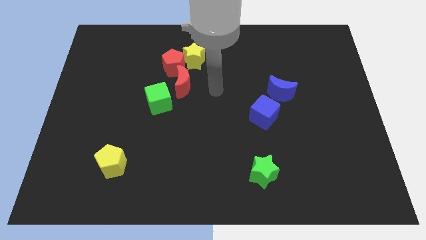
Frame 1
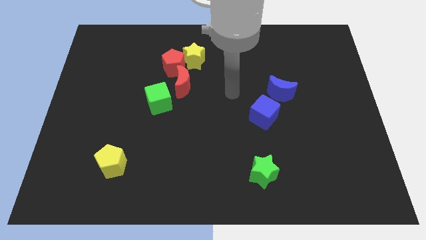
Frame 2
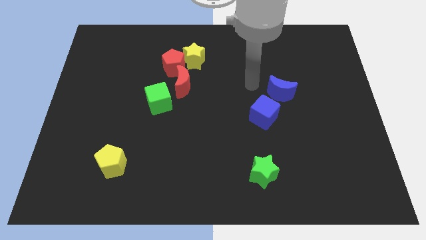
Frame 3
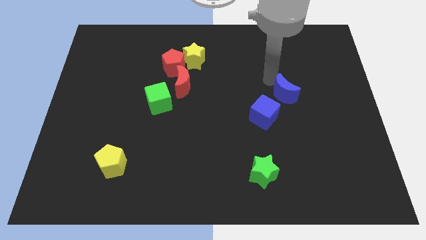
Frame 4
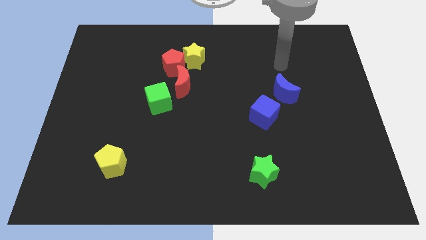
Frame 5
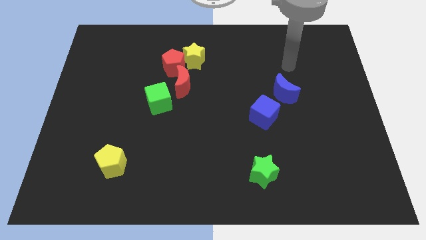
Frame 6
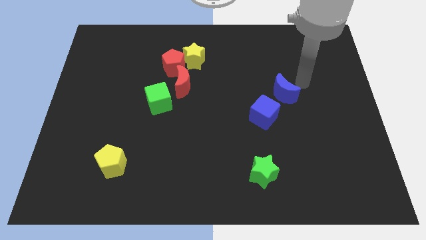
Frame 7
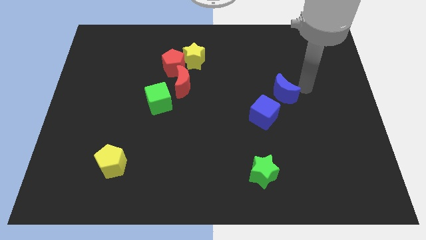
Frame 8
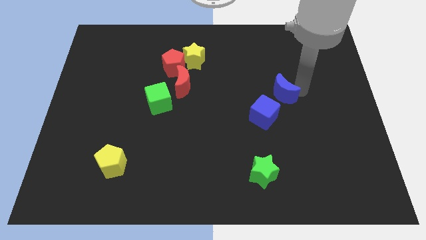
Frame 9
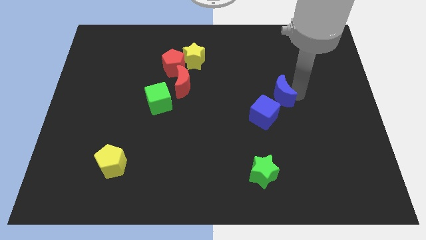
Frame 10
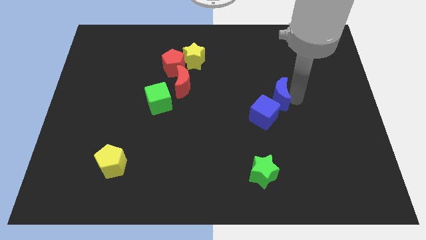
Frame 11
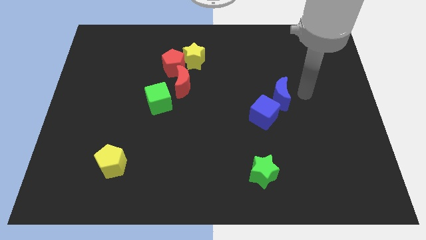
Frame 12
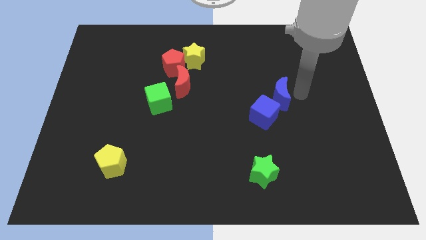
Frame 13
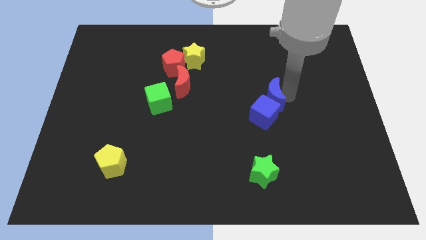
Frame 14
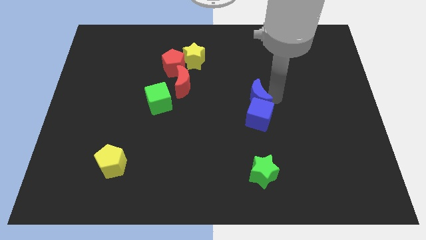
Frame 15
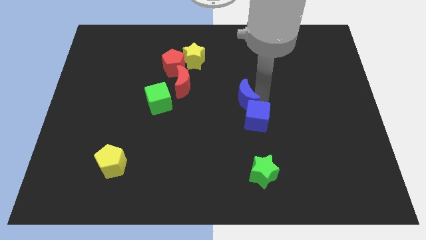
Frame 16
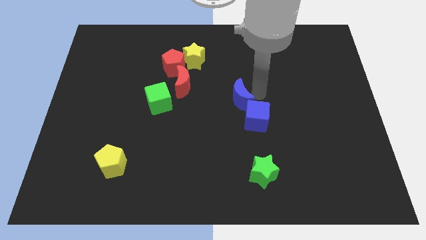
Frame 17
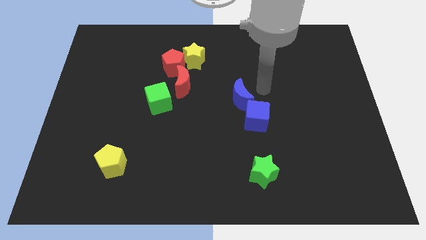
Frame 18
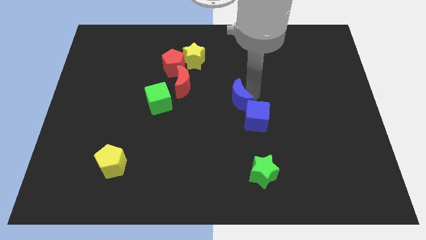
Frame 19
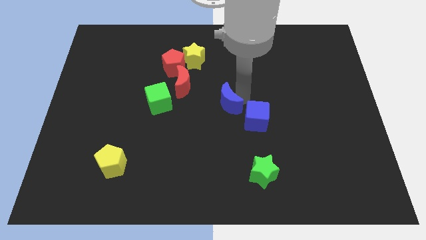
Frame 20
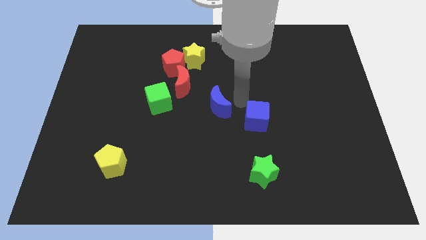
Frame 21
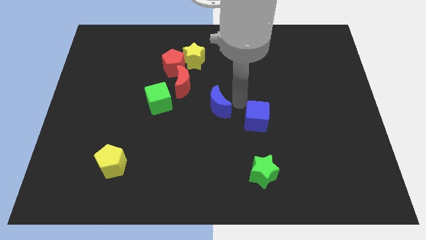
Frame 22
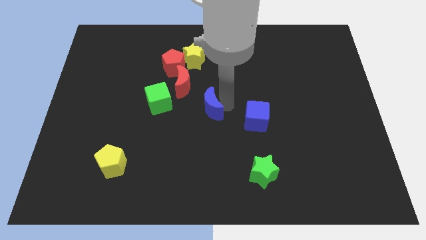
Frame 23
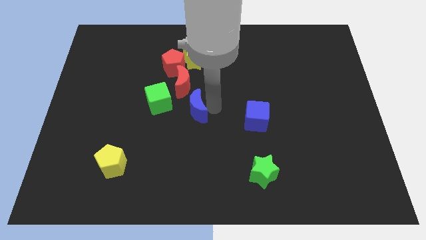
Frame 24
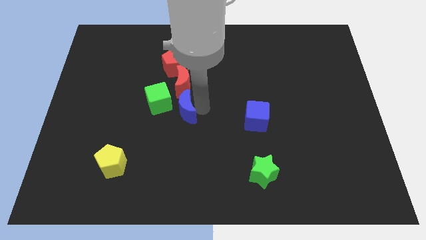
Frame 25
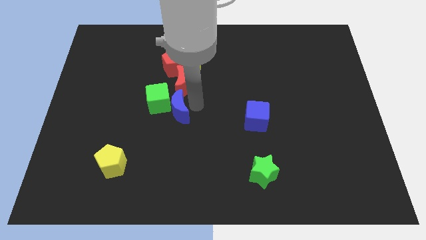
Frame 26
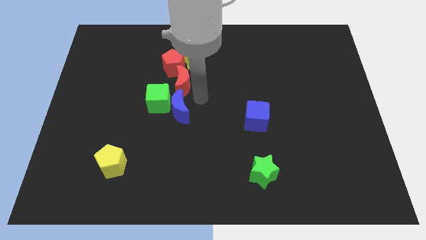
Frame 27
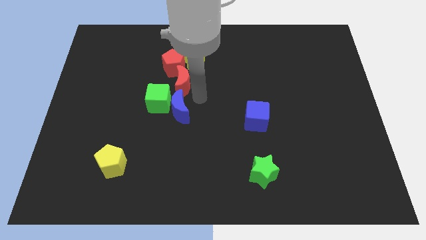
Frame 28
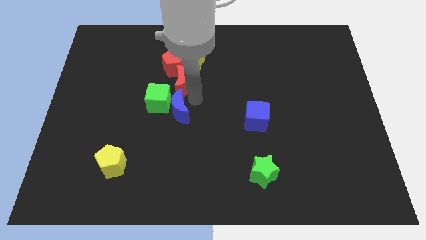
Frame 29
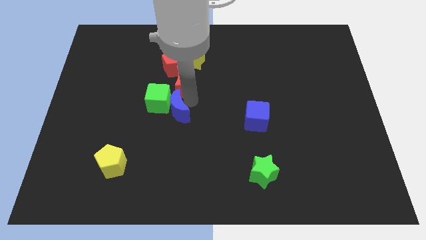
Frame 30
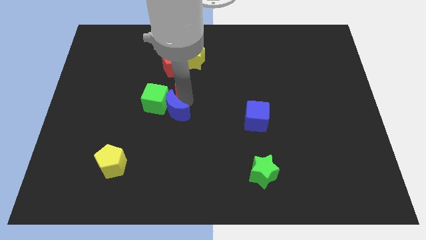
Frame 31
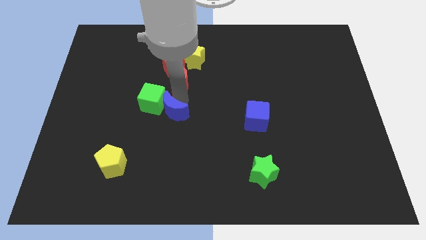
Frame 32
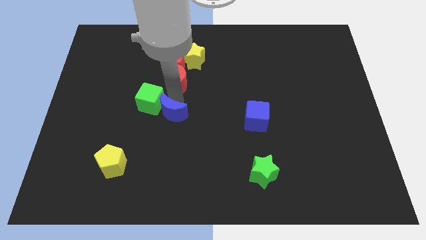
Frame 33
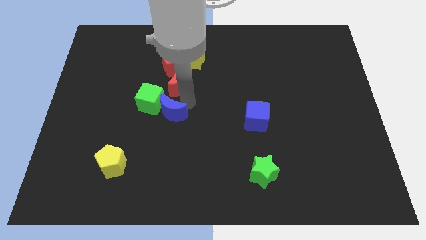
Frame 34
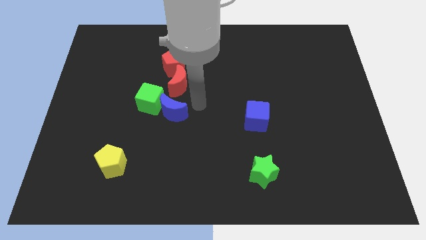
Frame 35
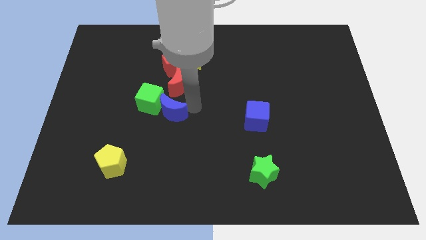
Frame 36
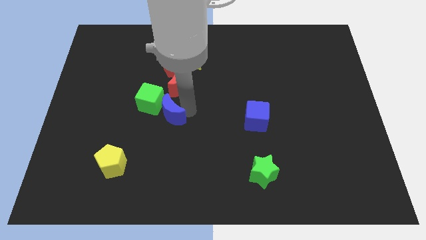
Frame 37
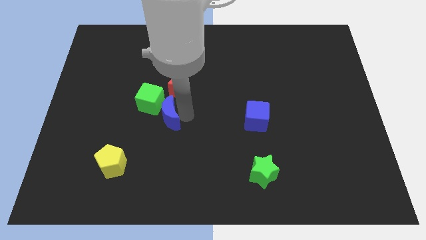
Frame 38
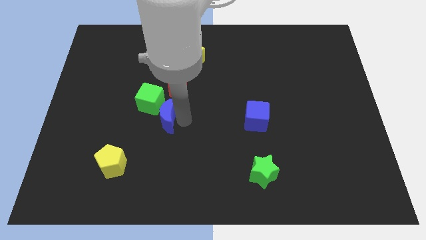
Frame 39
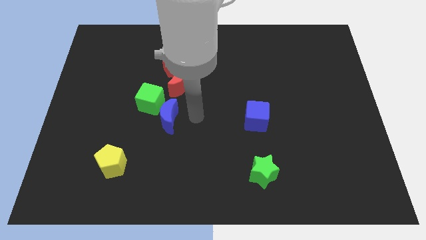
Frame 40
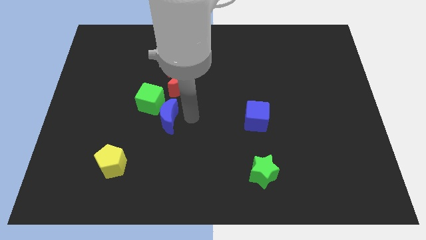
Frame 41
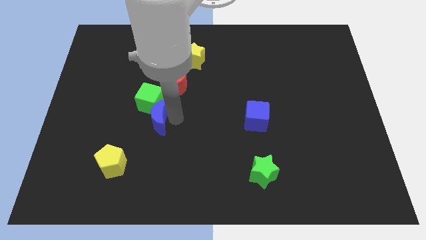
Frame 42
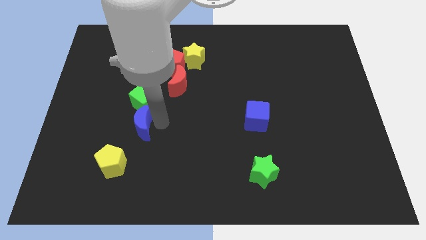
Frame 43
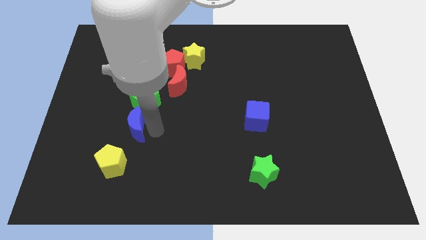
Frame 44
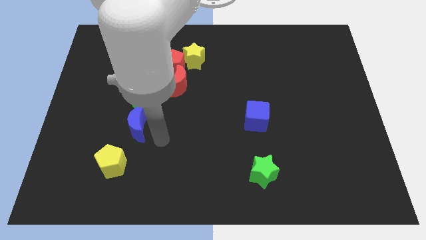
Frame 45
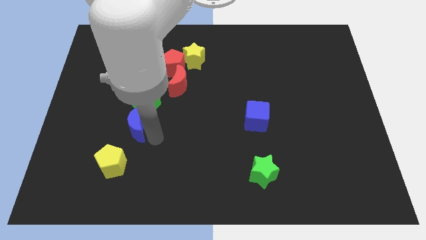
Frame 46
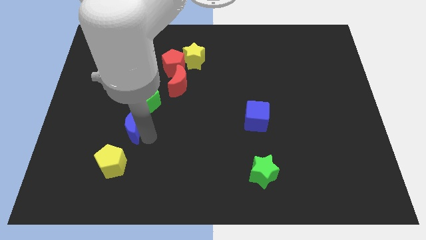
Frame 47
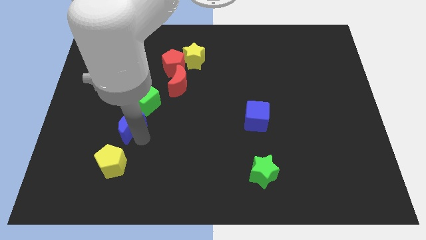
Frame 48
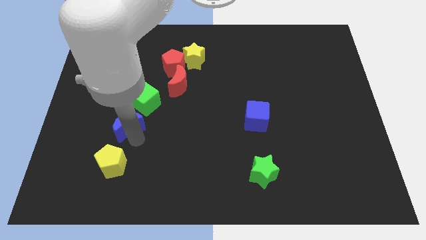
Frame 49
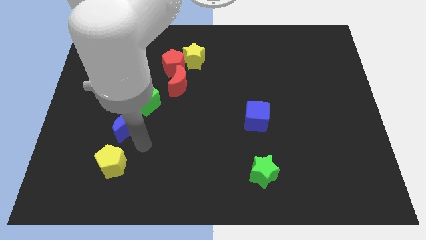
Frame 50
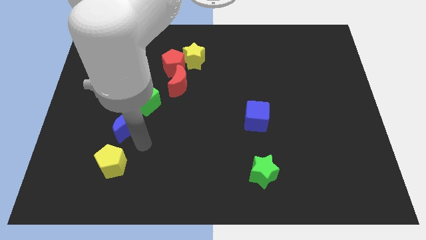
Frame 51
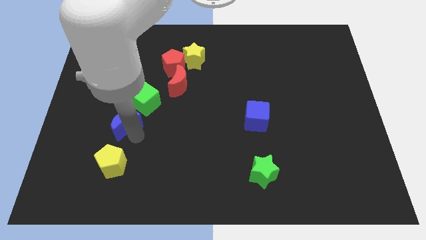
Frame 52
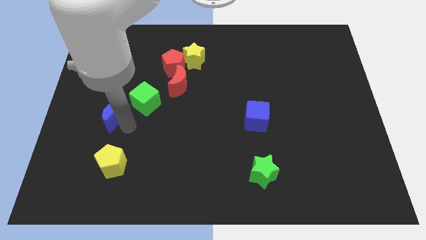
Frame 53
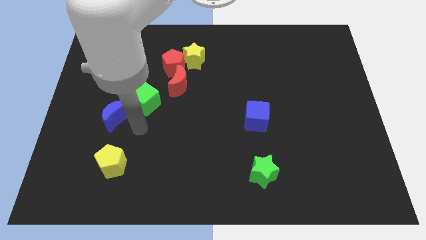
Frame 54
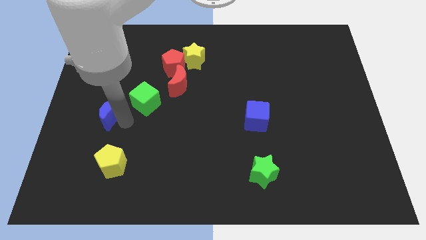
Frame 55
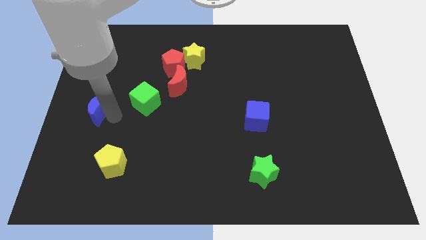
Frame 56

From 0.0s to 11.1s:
put the blue moon to the center left

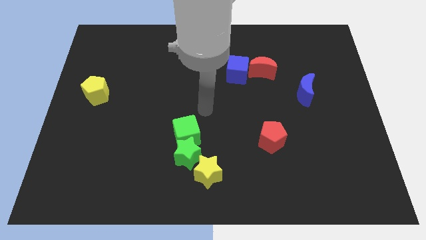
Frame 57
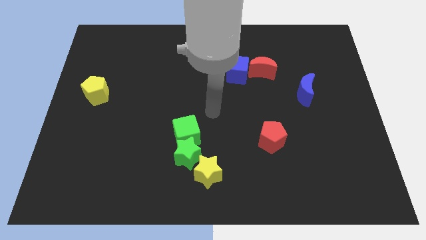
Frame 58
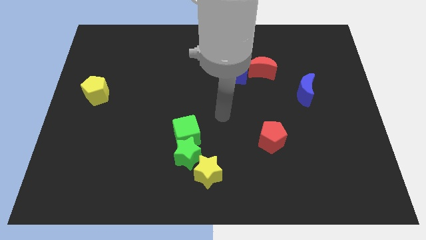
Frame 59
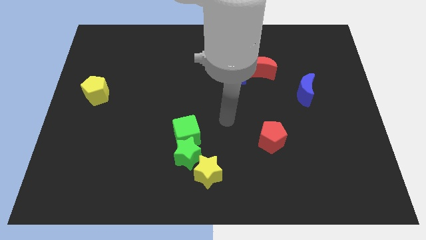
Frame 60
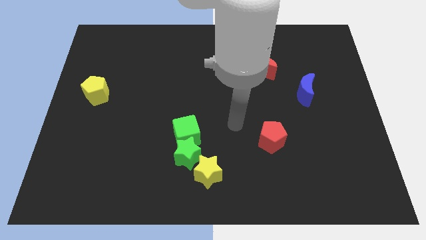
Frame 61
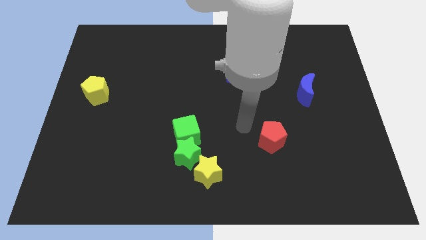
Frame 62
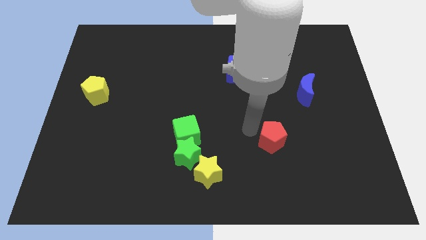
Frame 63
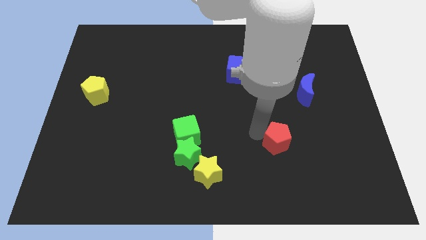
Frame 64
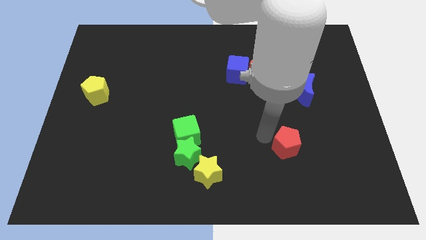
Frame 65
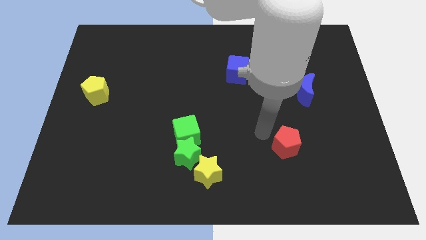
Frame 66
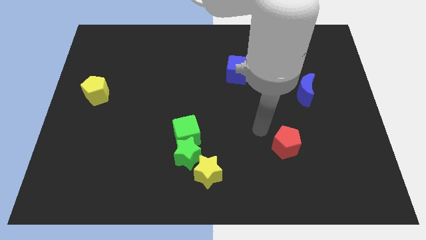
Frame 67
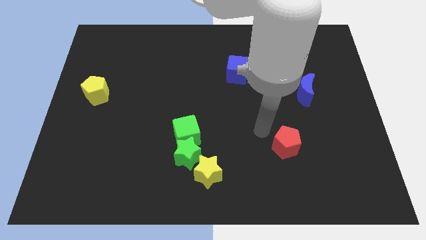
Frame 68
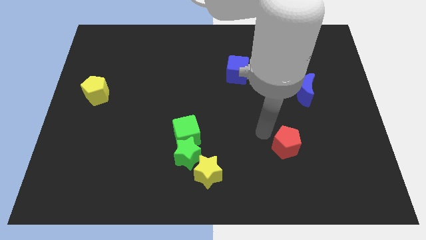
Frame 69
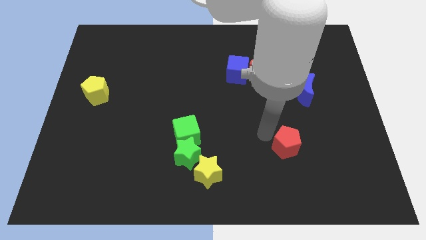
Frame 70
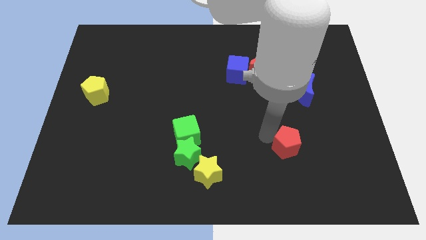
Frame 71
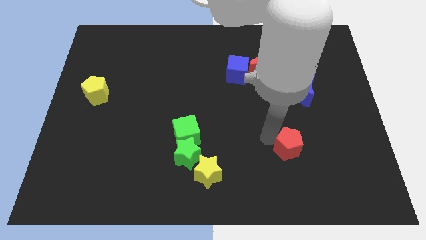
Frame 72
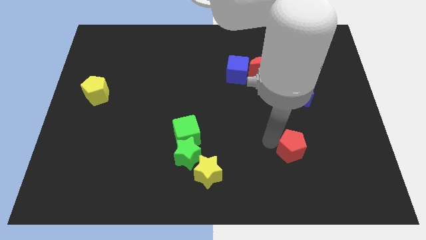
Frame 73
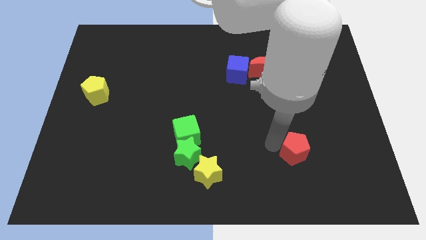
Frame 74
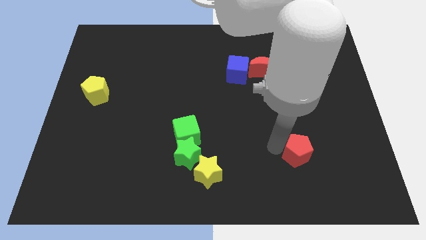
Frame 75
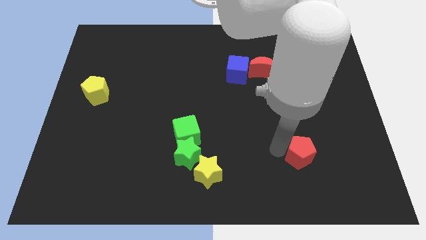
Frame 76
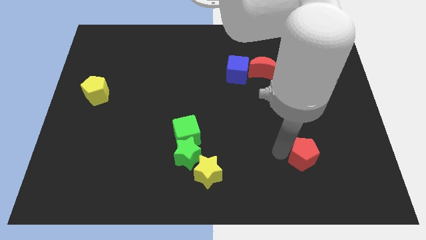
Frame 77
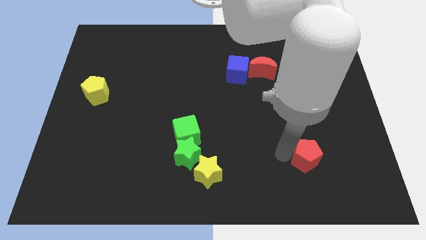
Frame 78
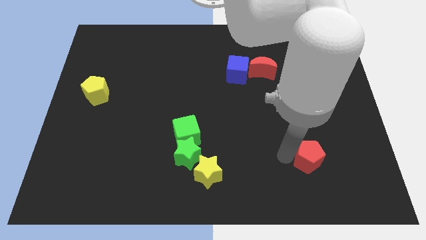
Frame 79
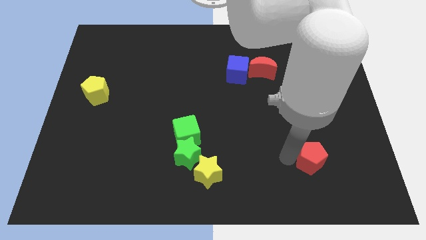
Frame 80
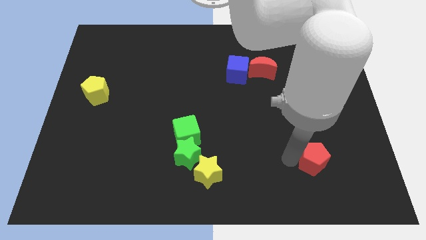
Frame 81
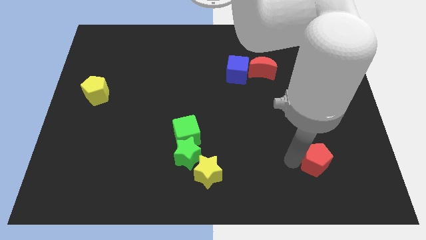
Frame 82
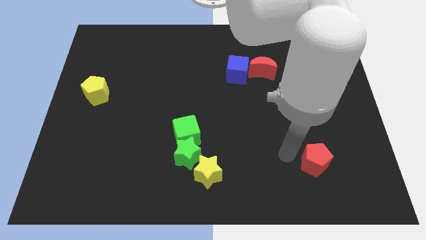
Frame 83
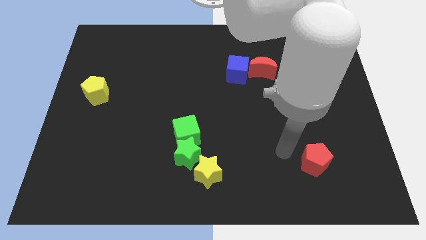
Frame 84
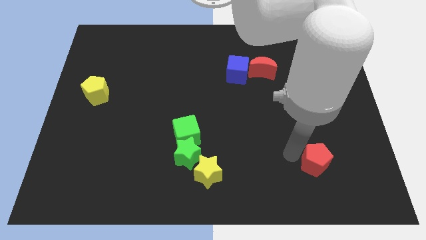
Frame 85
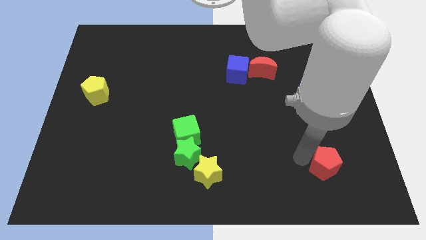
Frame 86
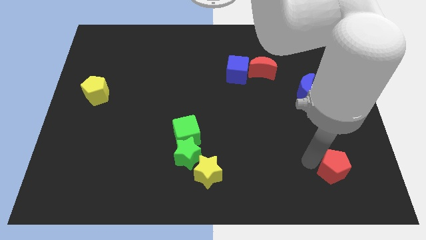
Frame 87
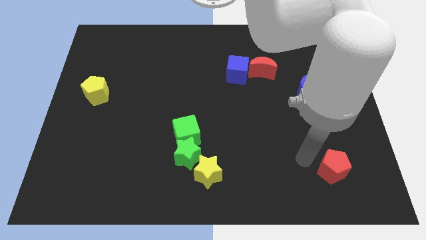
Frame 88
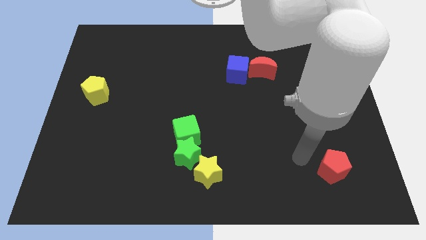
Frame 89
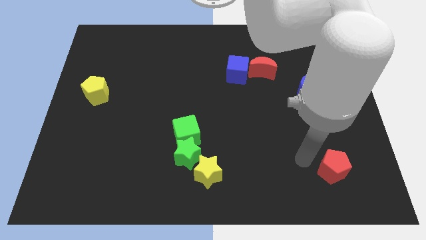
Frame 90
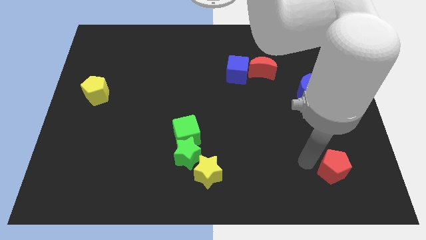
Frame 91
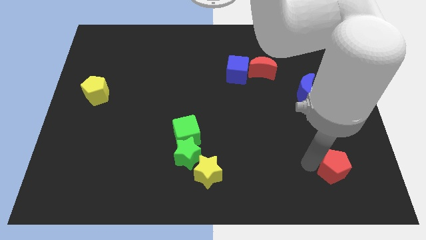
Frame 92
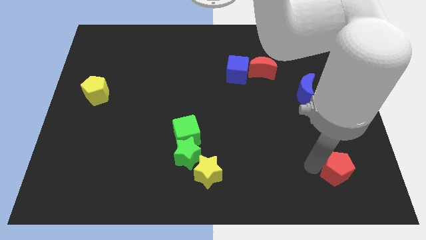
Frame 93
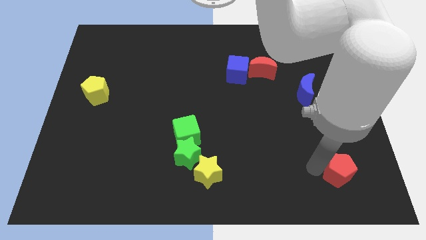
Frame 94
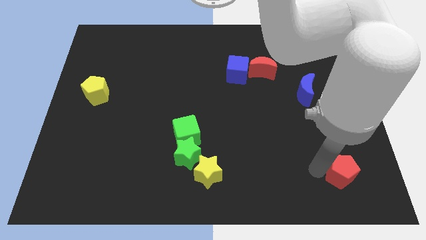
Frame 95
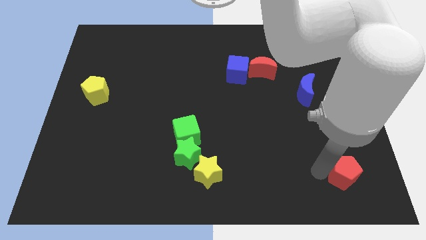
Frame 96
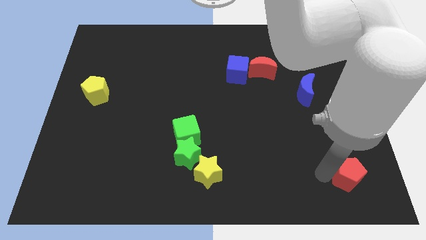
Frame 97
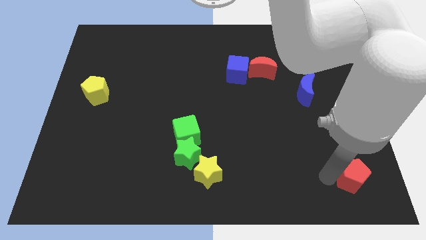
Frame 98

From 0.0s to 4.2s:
push the red pentagon to the bottom right of the board
